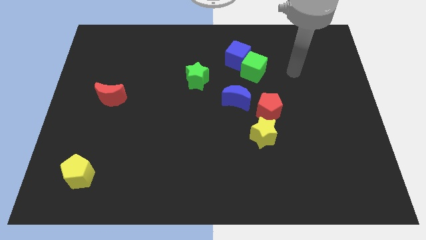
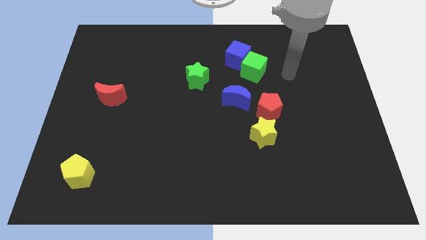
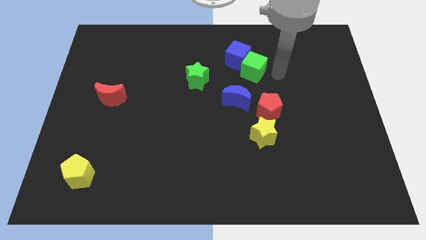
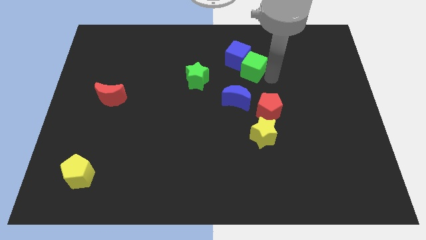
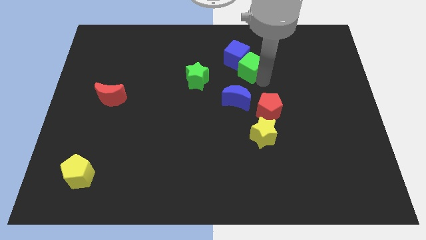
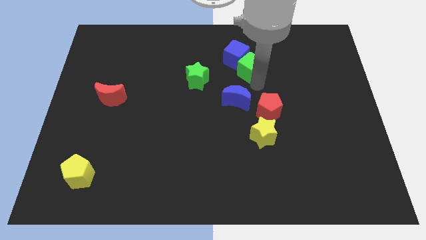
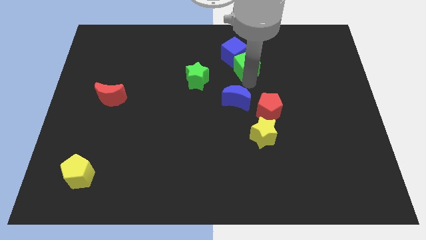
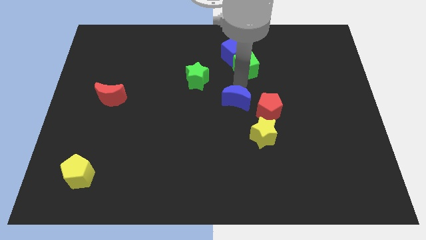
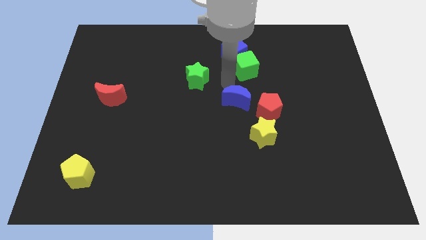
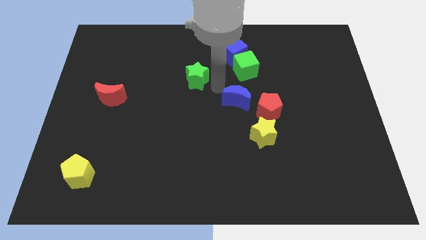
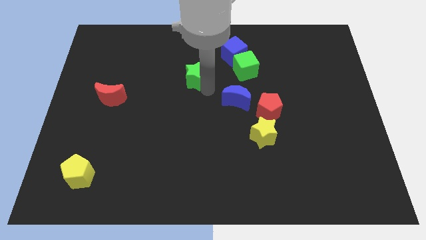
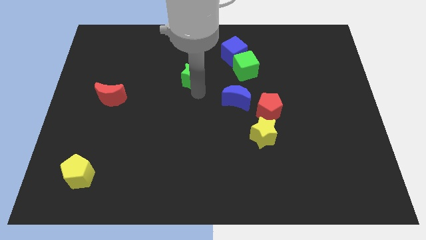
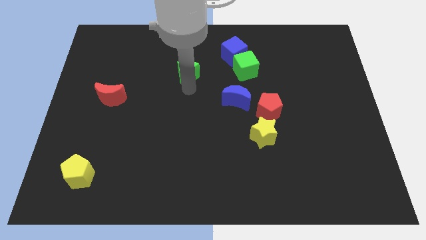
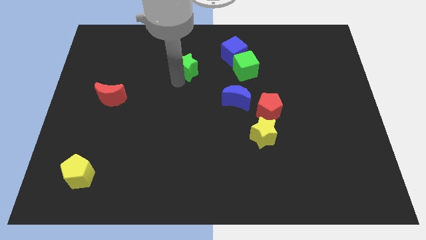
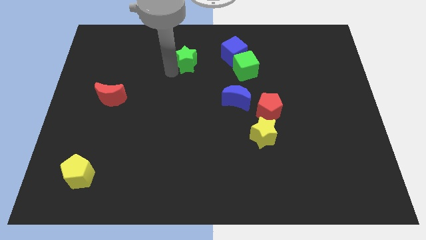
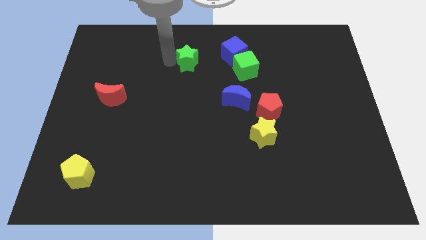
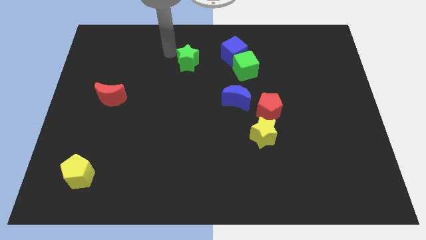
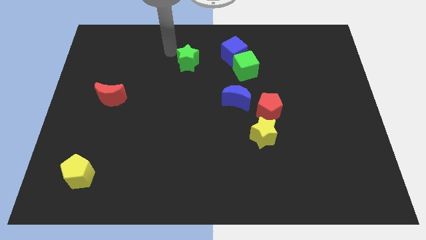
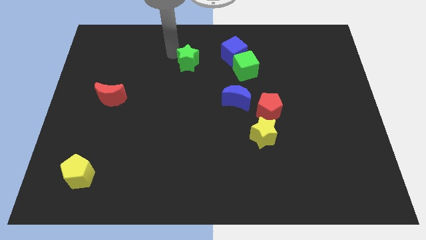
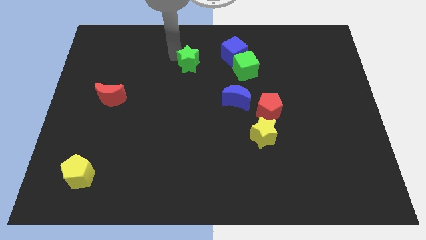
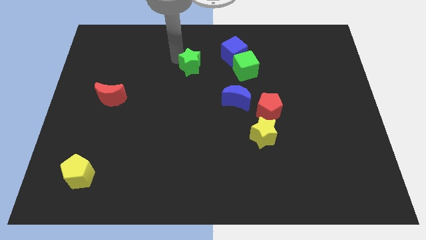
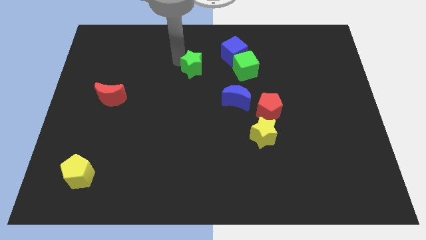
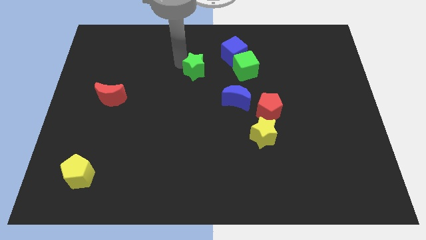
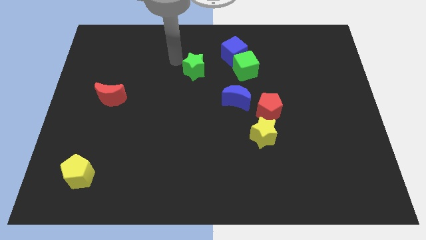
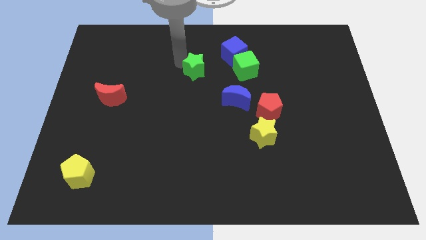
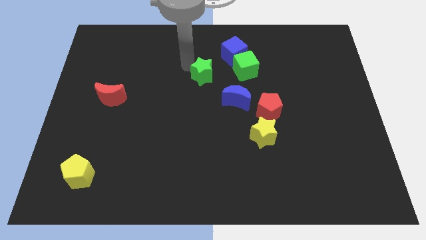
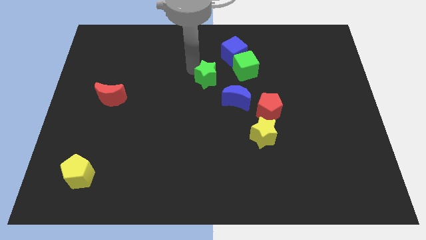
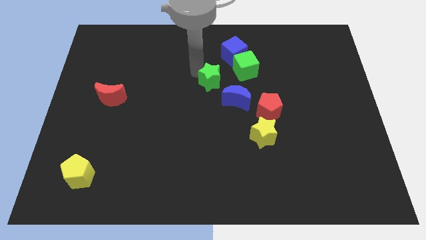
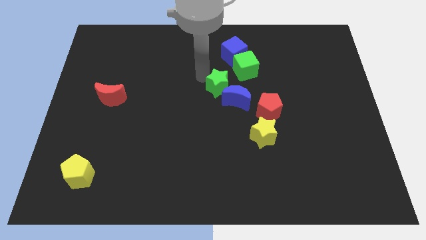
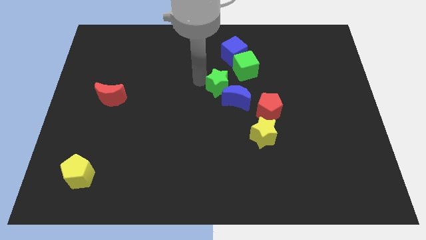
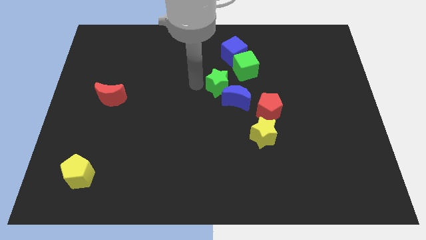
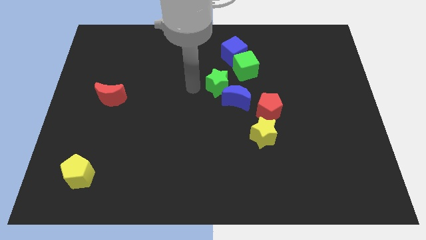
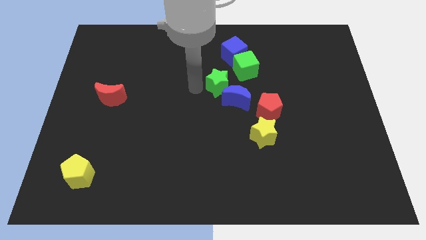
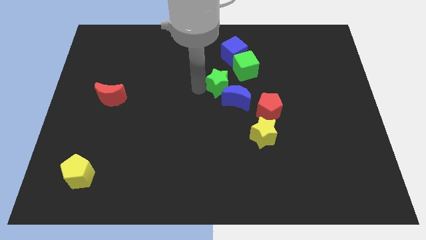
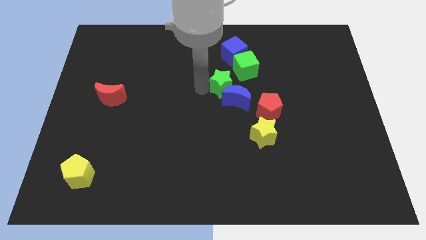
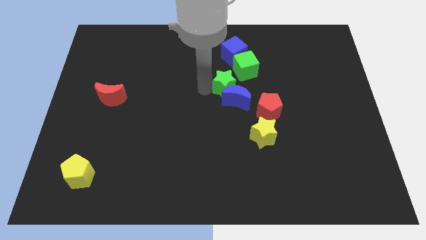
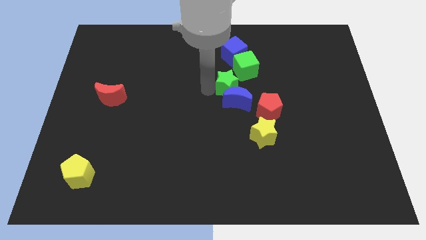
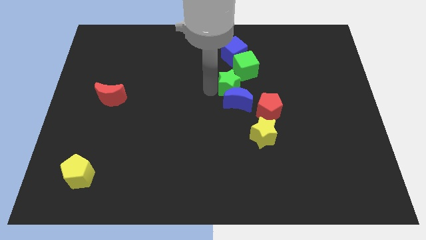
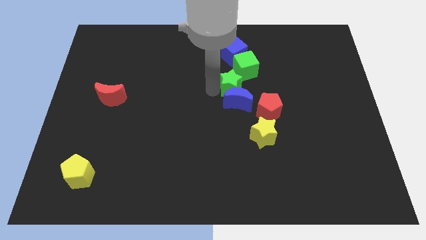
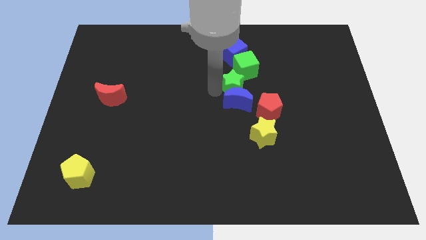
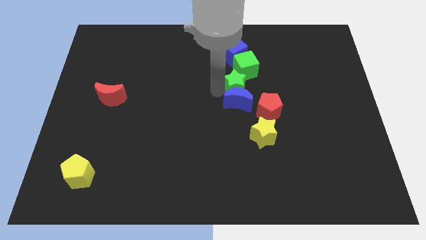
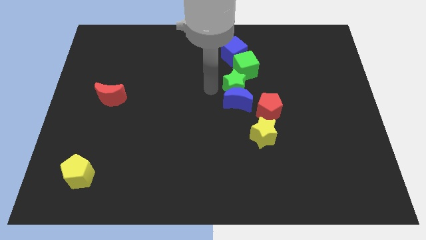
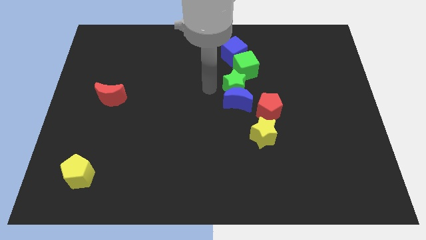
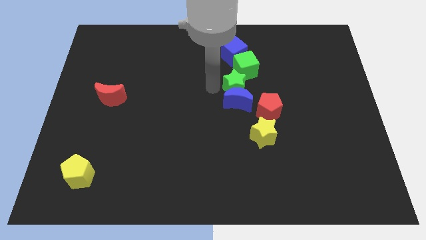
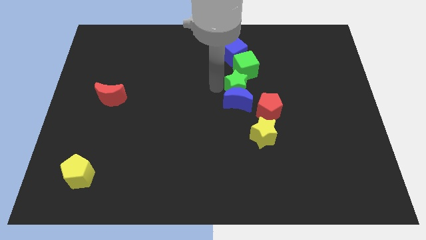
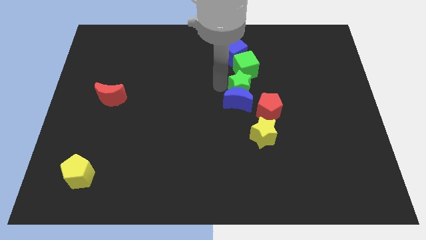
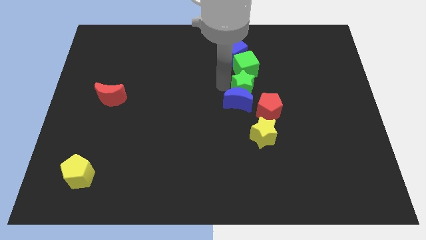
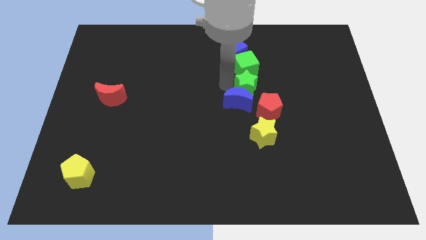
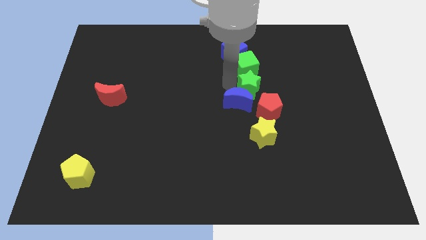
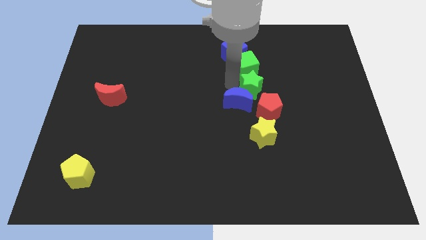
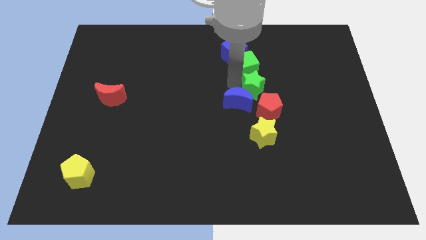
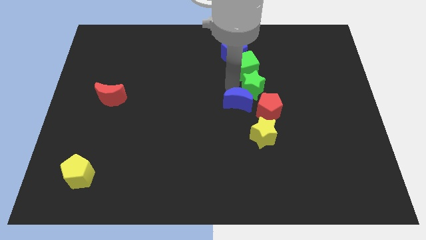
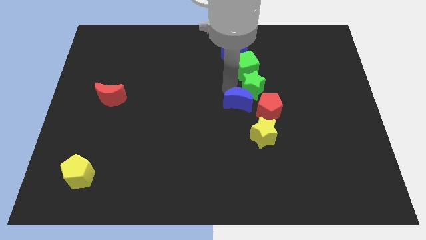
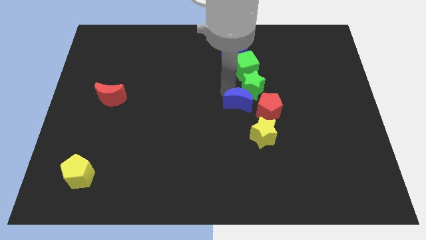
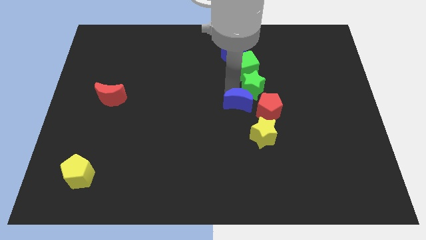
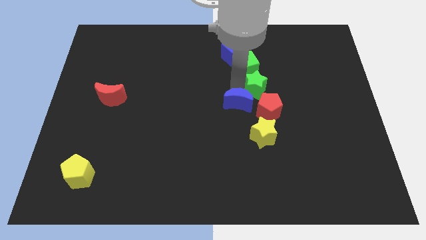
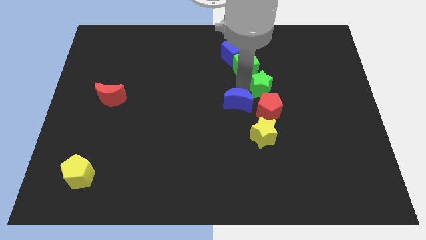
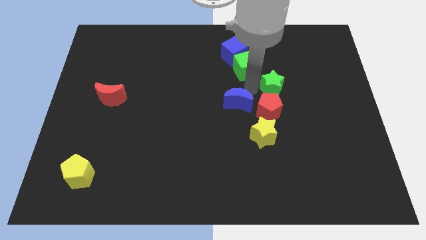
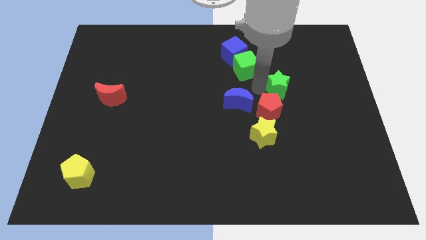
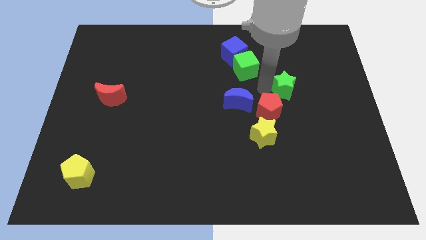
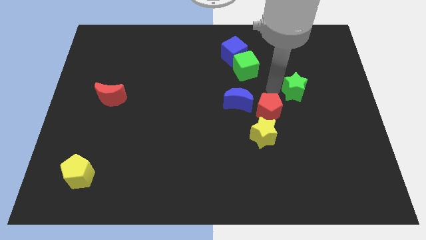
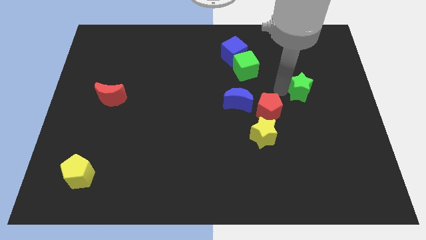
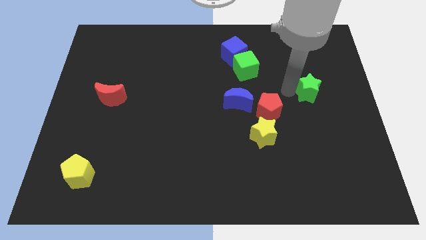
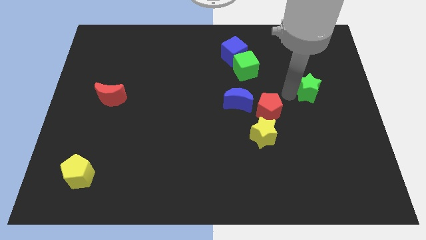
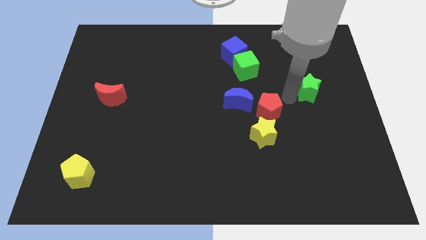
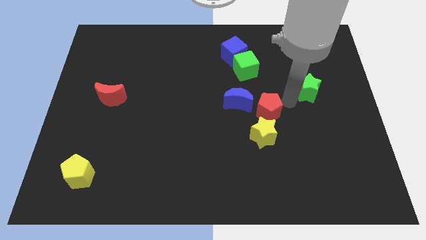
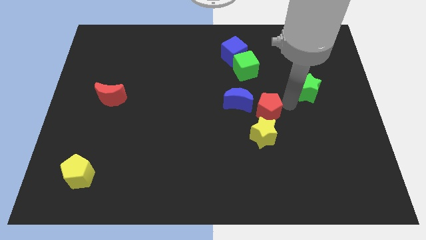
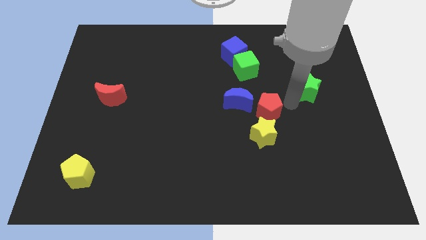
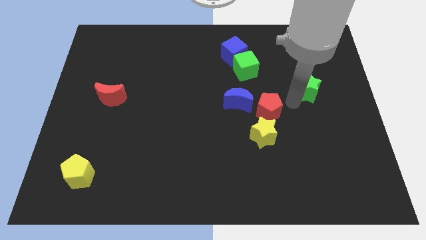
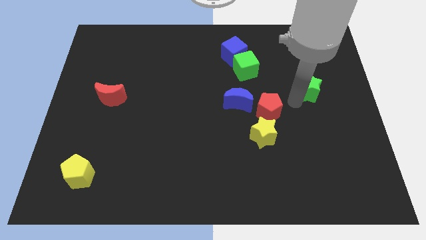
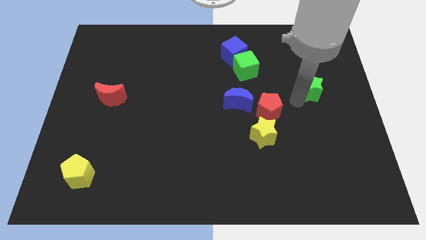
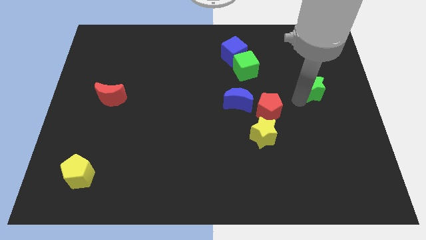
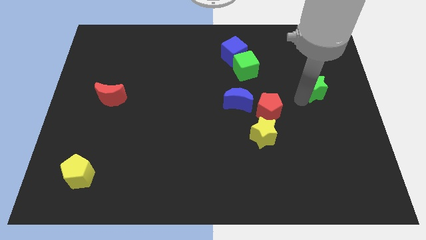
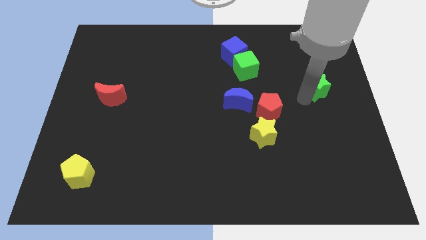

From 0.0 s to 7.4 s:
push the green star to the right side
